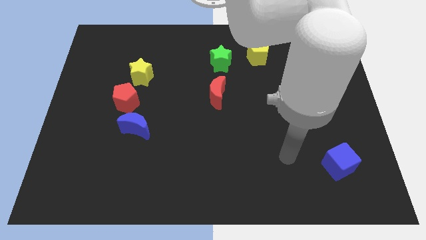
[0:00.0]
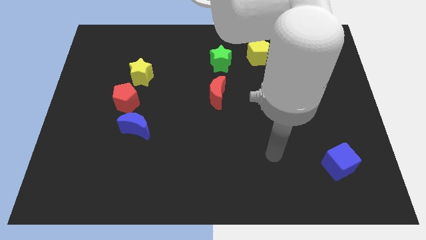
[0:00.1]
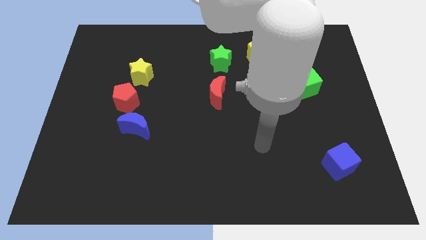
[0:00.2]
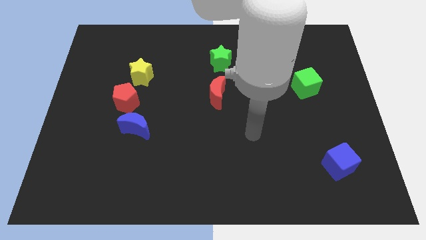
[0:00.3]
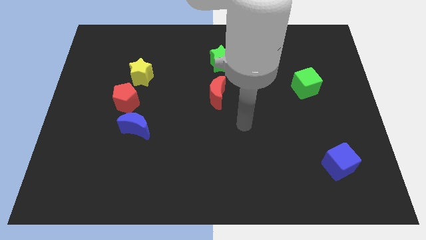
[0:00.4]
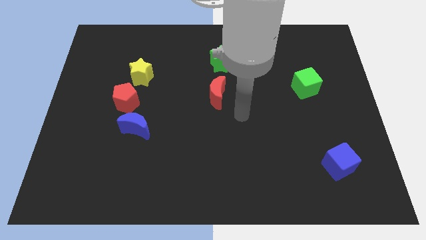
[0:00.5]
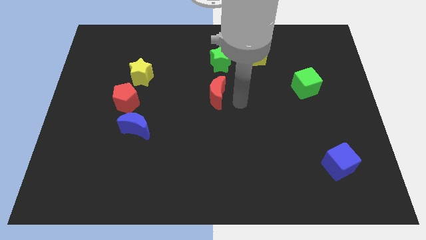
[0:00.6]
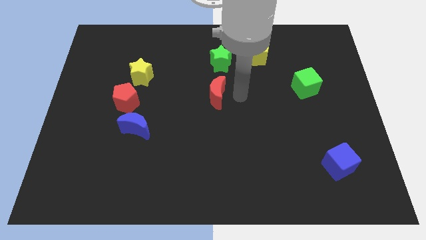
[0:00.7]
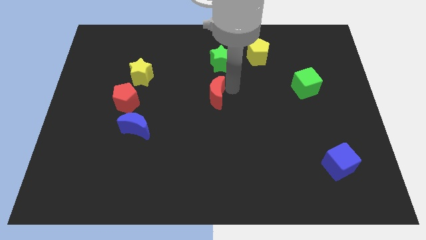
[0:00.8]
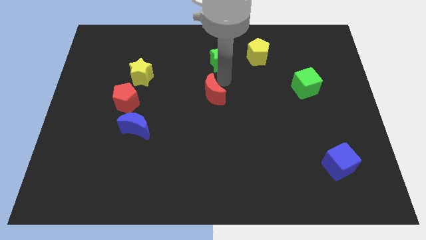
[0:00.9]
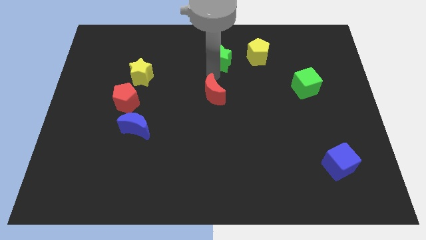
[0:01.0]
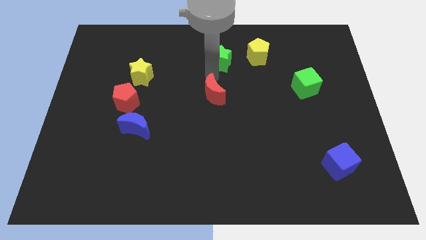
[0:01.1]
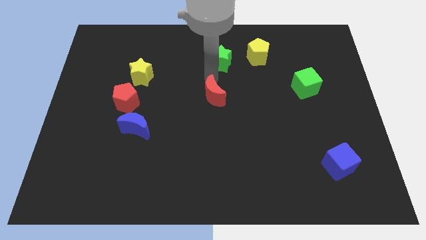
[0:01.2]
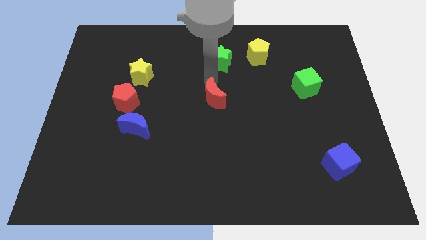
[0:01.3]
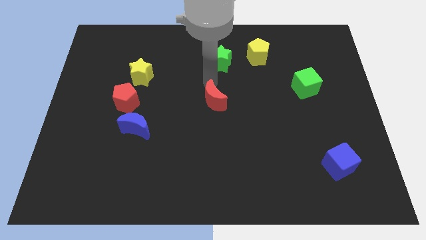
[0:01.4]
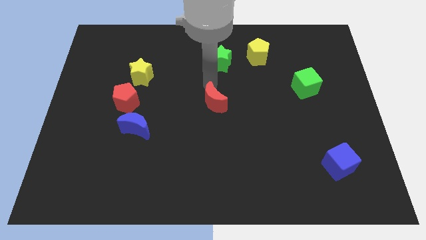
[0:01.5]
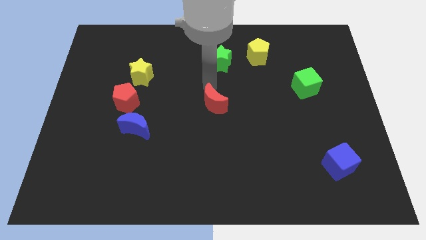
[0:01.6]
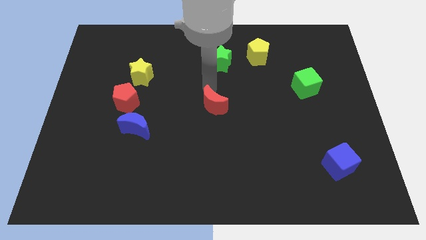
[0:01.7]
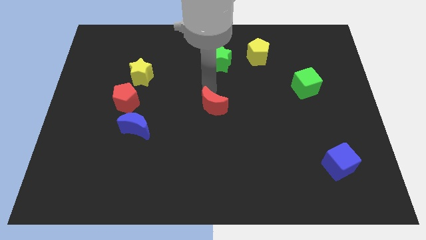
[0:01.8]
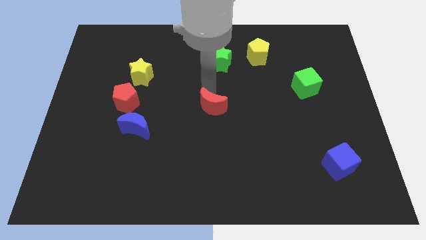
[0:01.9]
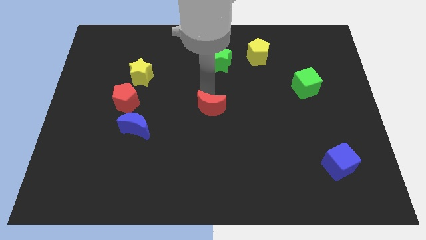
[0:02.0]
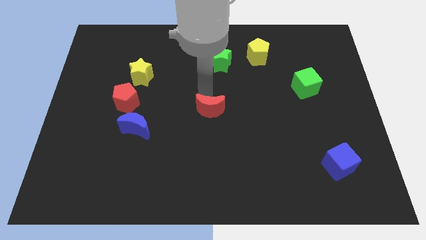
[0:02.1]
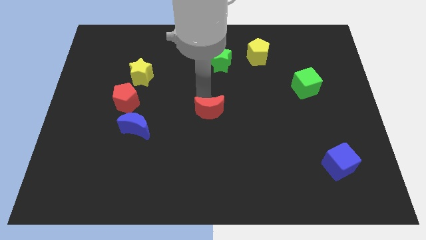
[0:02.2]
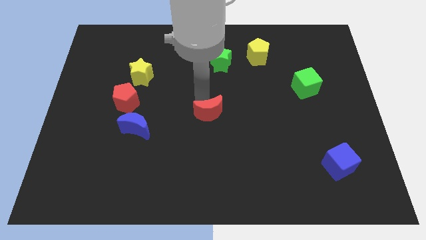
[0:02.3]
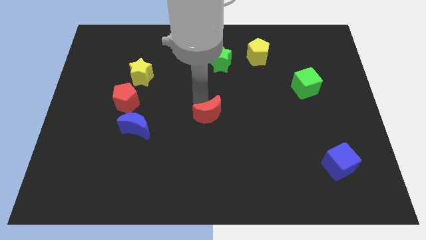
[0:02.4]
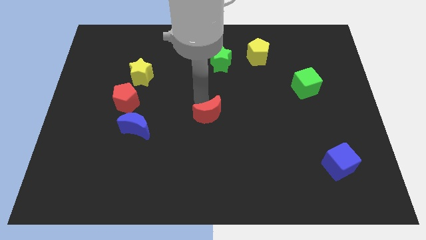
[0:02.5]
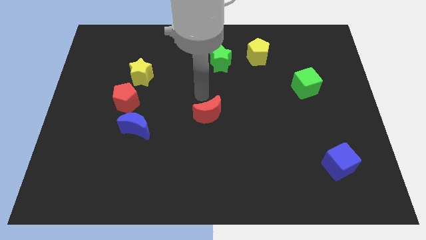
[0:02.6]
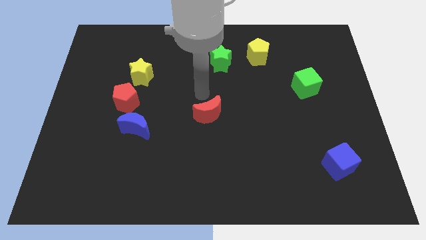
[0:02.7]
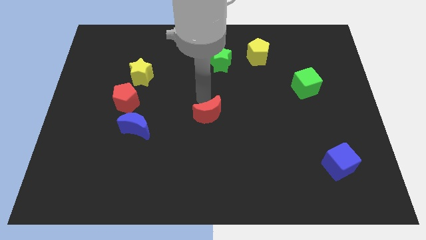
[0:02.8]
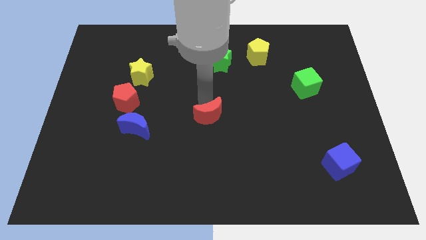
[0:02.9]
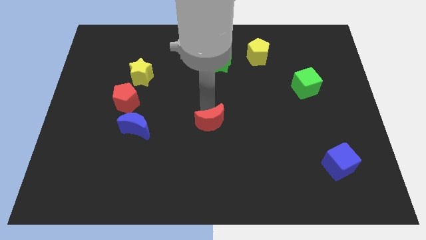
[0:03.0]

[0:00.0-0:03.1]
slide the red moon a bit downwards

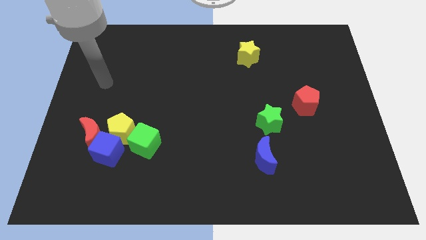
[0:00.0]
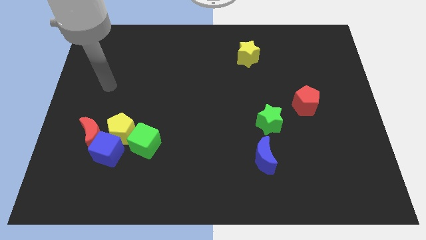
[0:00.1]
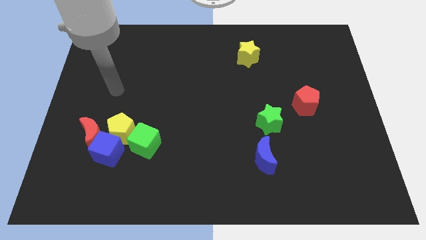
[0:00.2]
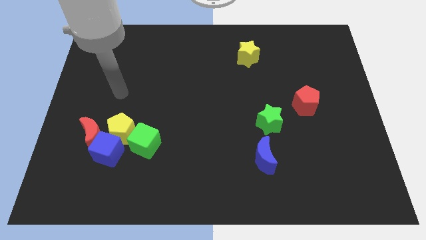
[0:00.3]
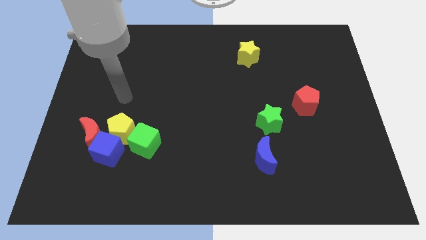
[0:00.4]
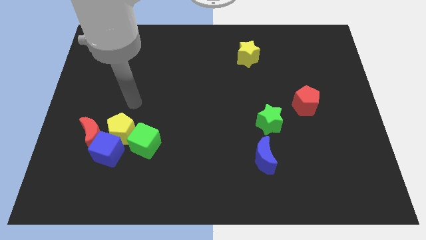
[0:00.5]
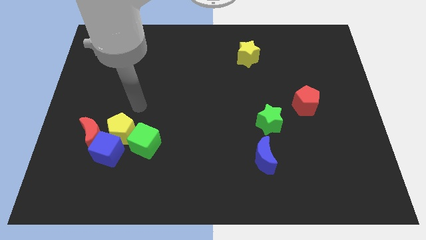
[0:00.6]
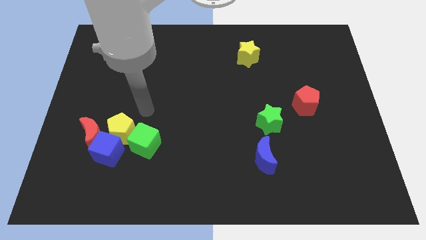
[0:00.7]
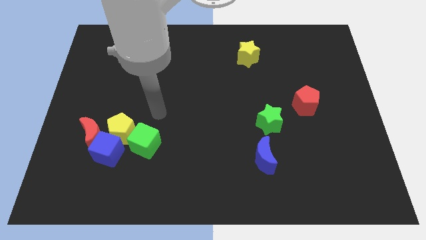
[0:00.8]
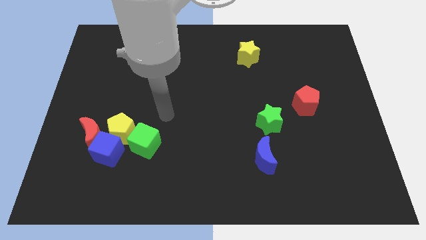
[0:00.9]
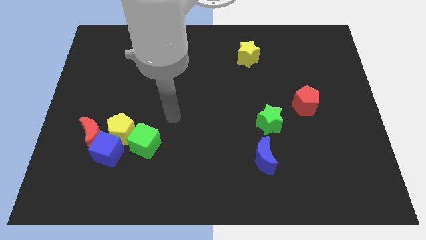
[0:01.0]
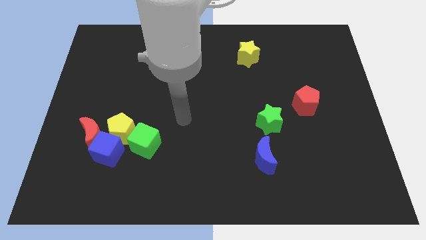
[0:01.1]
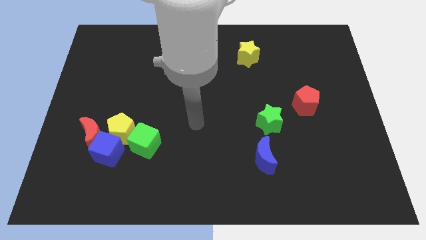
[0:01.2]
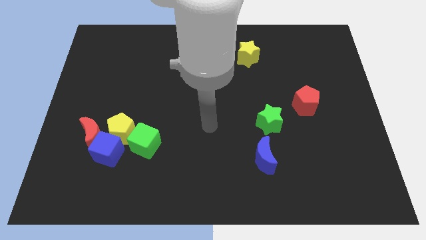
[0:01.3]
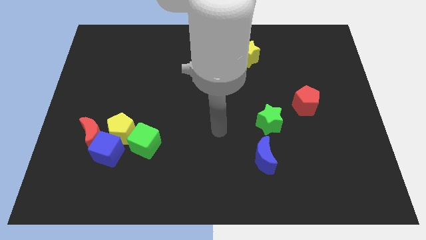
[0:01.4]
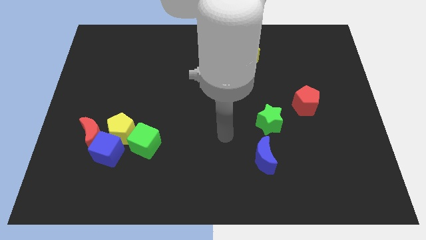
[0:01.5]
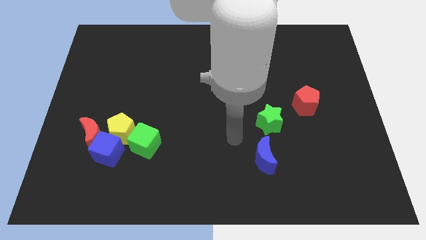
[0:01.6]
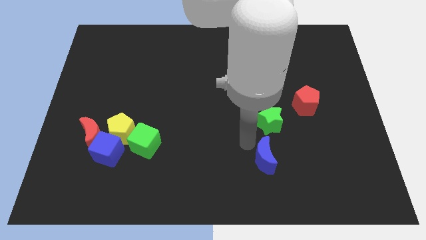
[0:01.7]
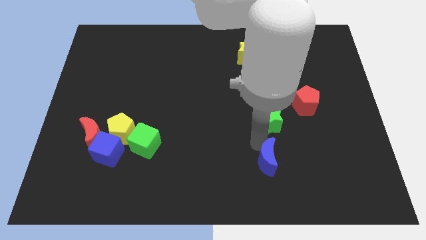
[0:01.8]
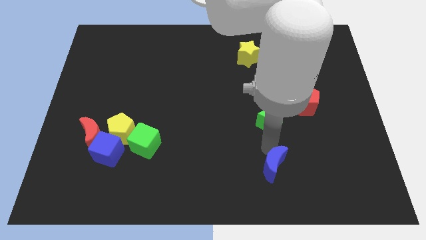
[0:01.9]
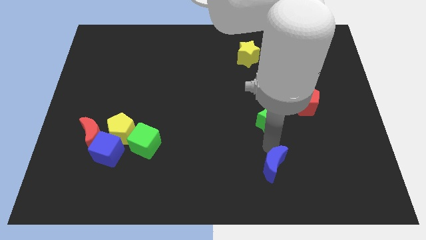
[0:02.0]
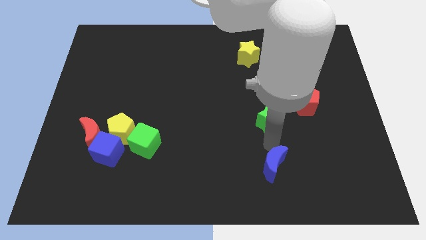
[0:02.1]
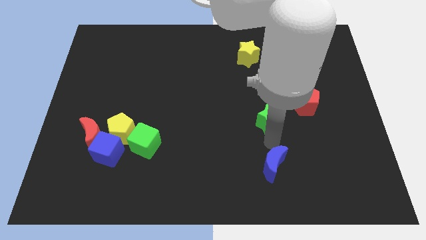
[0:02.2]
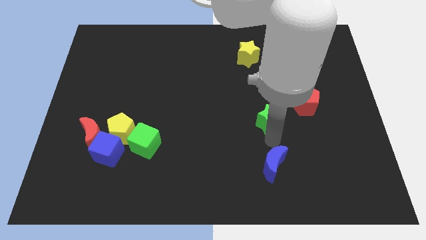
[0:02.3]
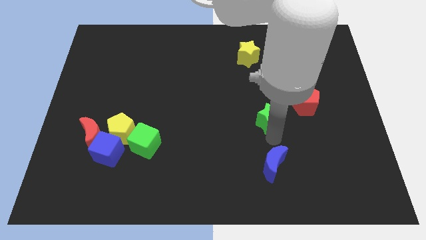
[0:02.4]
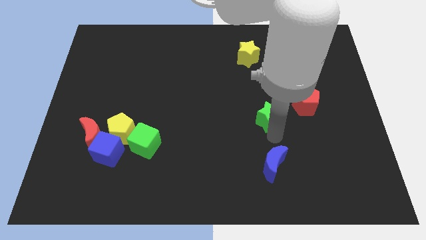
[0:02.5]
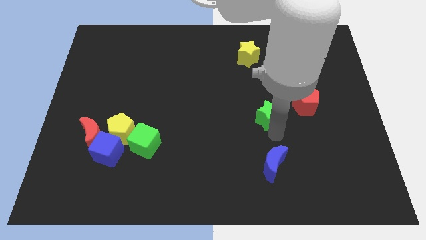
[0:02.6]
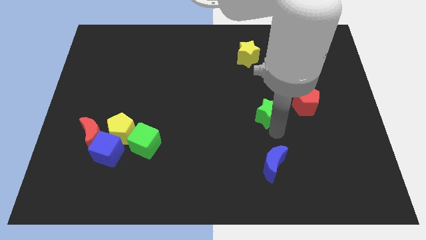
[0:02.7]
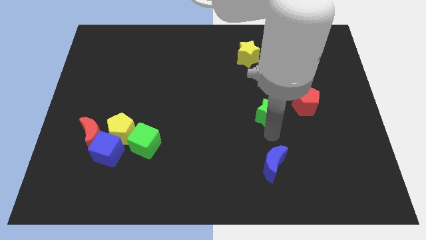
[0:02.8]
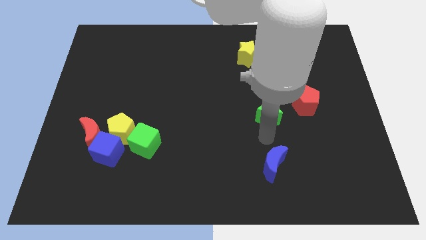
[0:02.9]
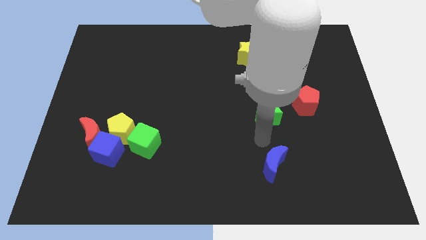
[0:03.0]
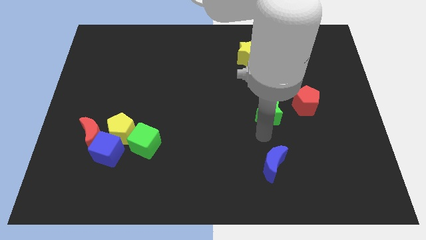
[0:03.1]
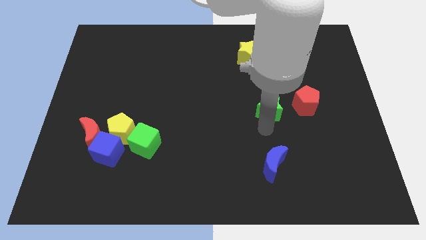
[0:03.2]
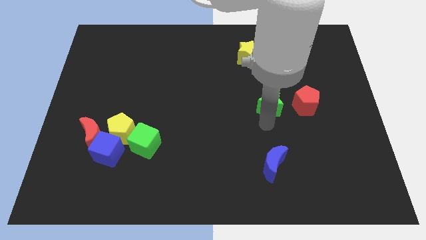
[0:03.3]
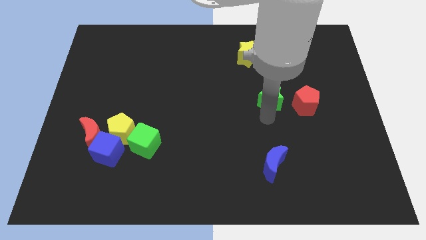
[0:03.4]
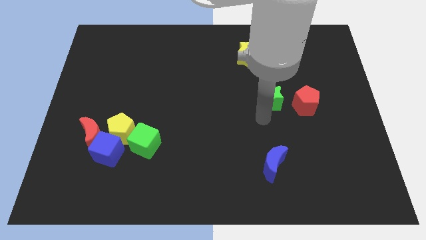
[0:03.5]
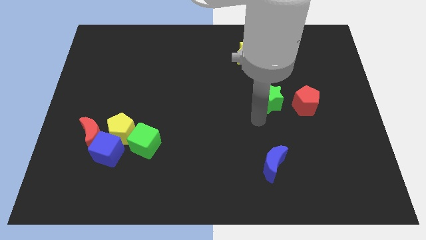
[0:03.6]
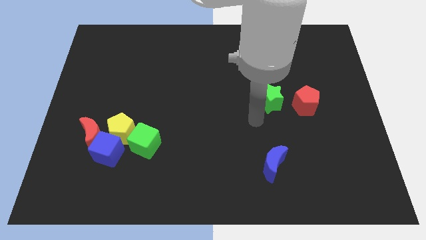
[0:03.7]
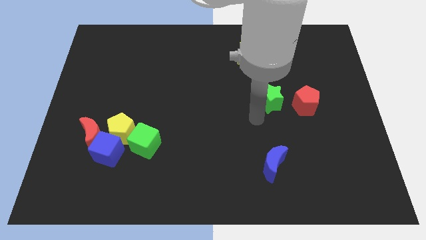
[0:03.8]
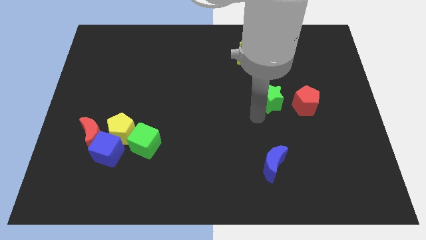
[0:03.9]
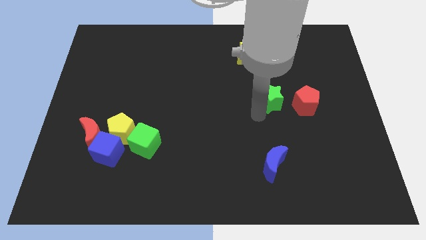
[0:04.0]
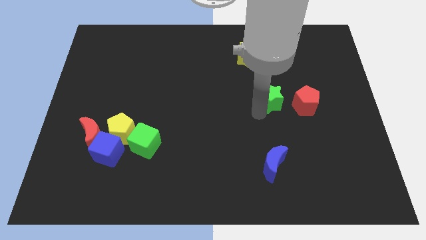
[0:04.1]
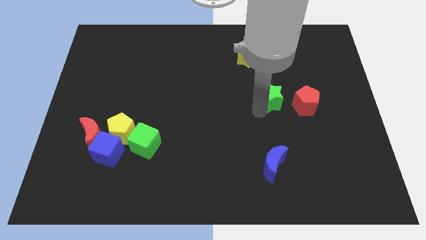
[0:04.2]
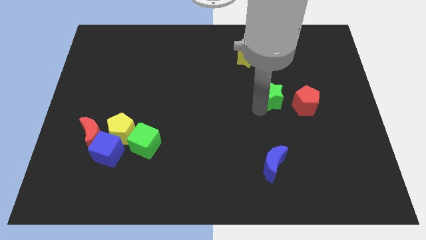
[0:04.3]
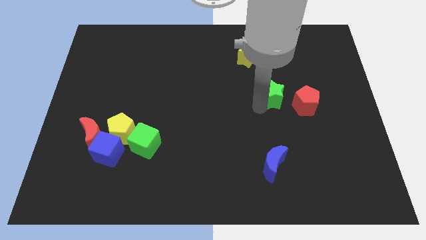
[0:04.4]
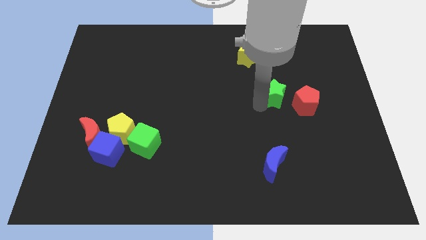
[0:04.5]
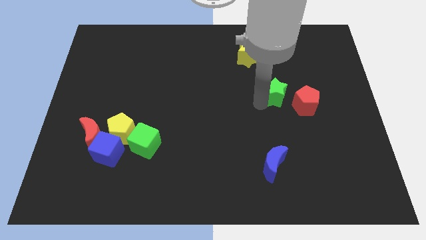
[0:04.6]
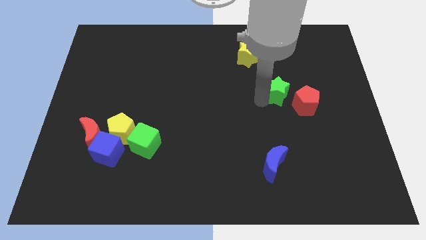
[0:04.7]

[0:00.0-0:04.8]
move the green star up and to the right diagonally somewhat
